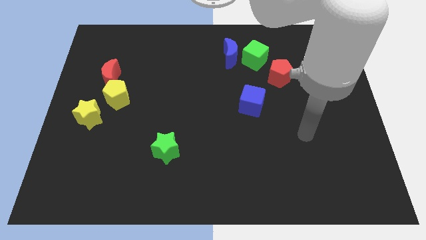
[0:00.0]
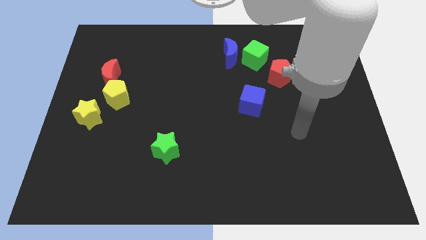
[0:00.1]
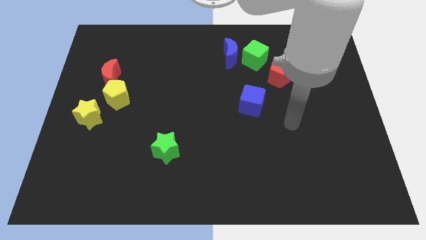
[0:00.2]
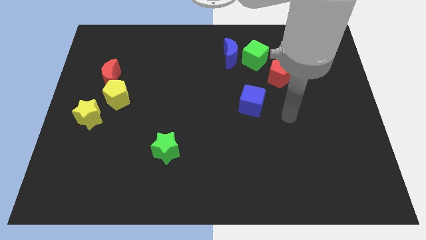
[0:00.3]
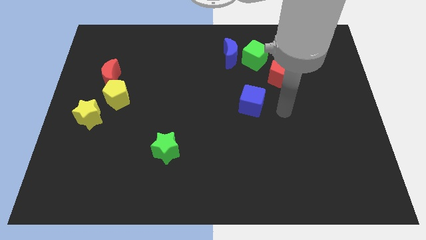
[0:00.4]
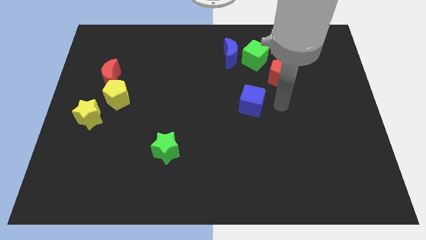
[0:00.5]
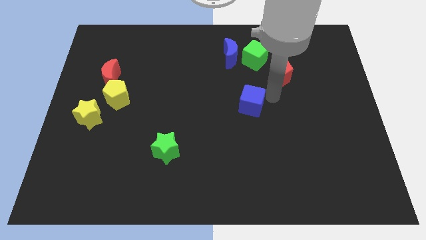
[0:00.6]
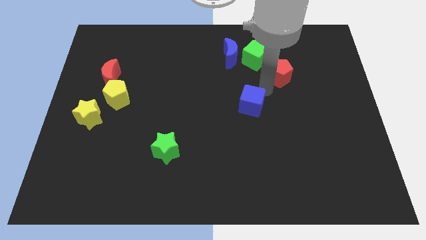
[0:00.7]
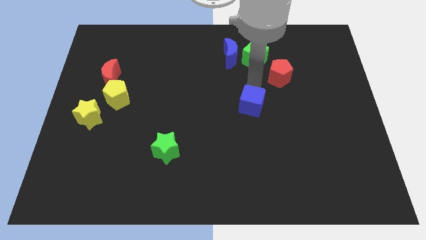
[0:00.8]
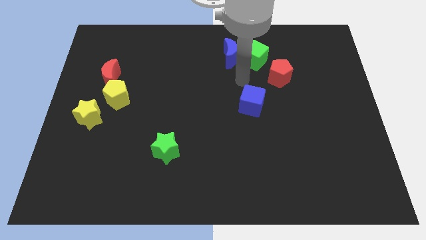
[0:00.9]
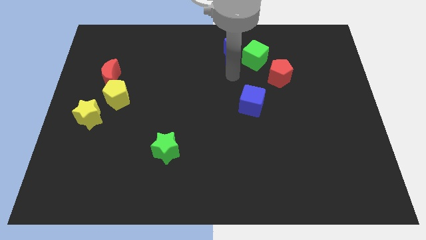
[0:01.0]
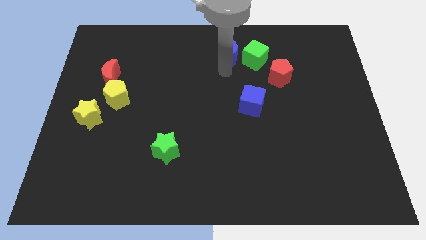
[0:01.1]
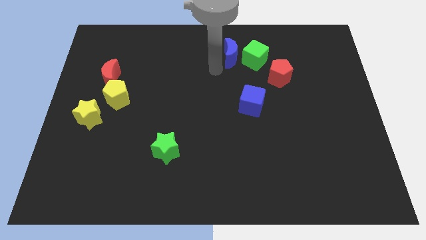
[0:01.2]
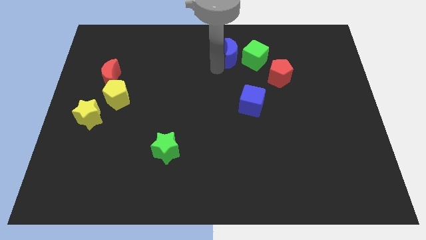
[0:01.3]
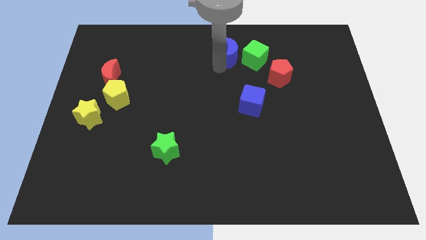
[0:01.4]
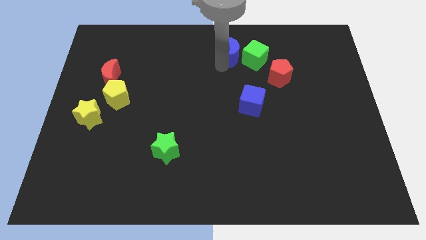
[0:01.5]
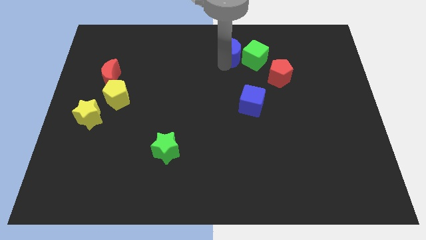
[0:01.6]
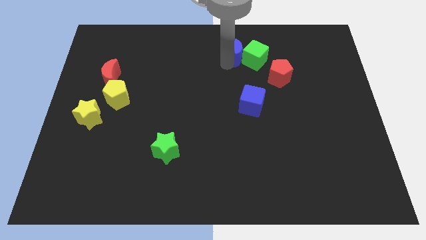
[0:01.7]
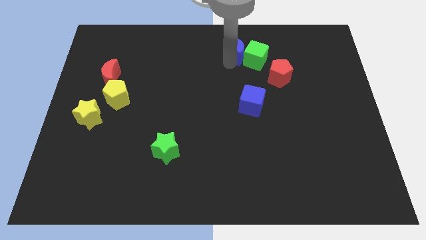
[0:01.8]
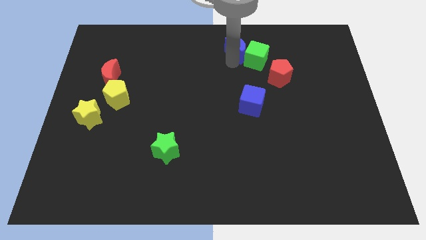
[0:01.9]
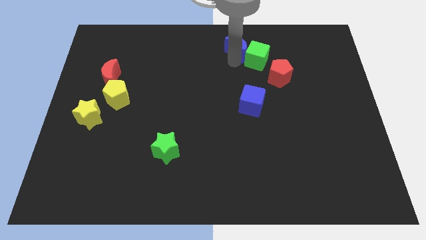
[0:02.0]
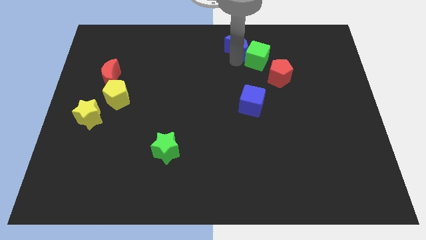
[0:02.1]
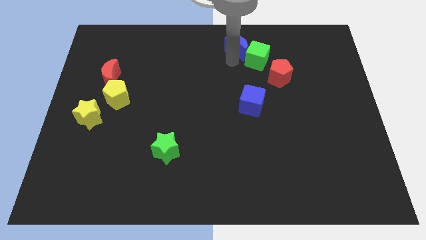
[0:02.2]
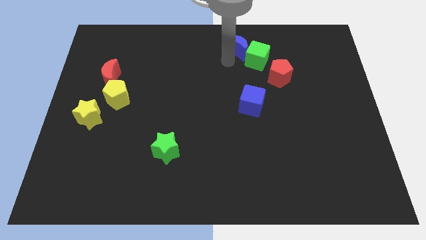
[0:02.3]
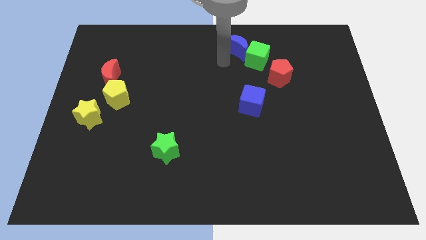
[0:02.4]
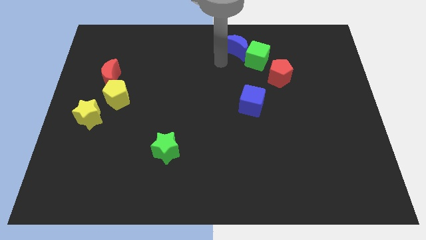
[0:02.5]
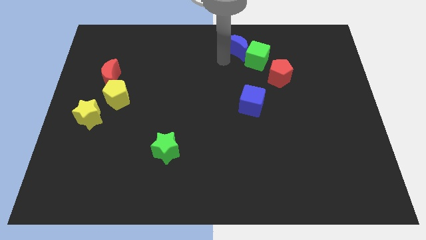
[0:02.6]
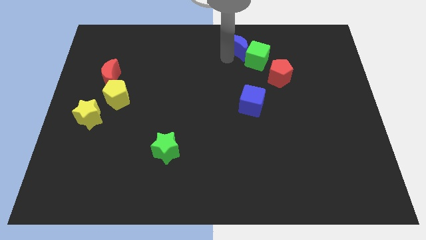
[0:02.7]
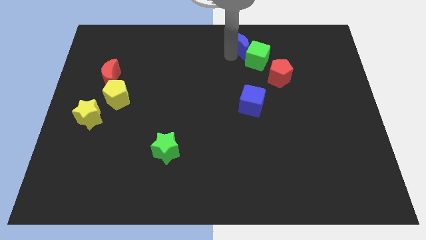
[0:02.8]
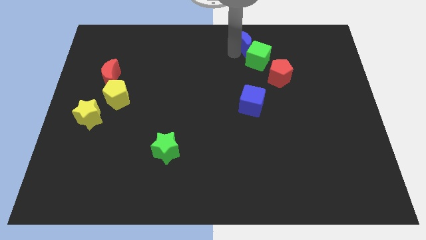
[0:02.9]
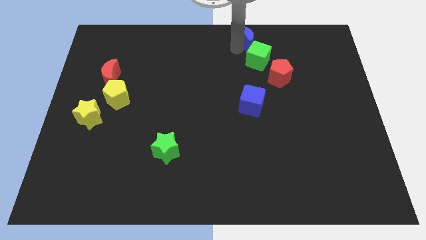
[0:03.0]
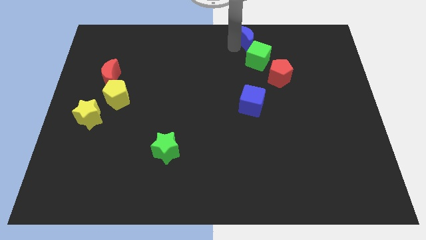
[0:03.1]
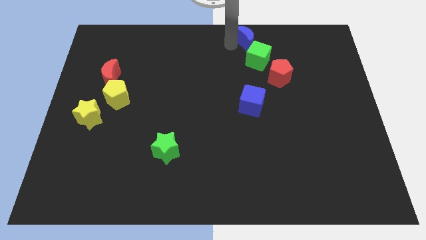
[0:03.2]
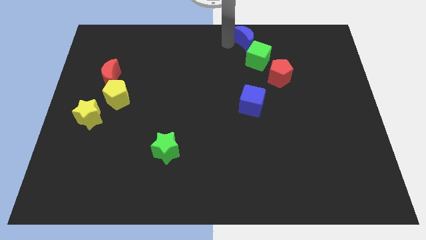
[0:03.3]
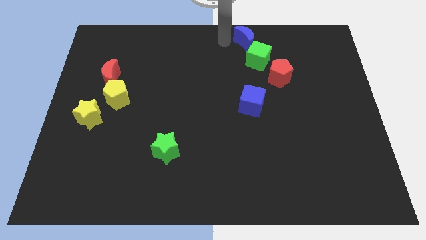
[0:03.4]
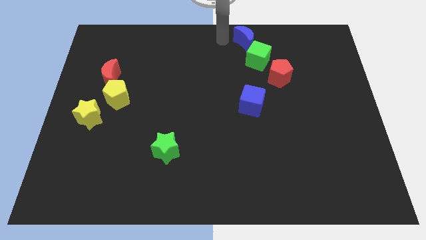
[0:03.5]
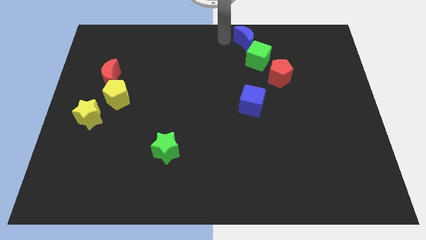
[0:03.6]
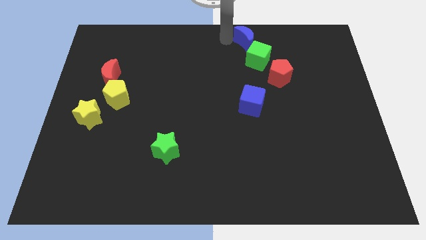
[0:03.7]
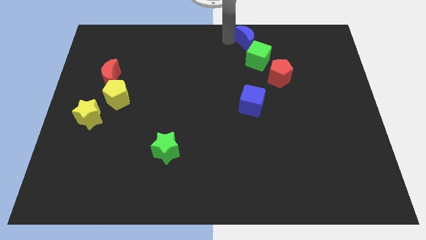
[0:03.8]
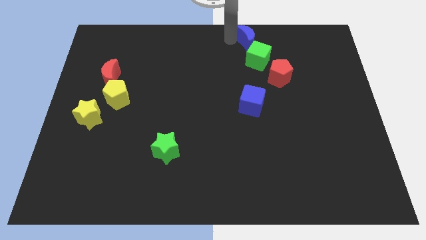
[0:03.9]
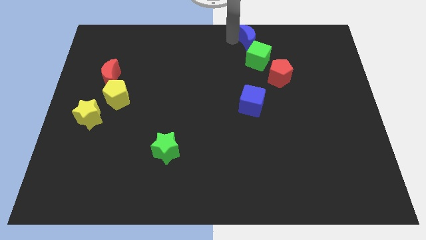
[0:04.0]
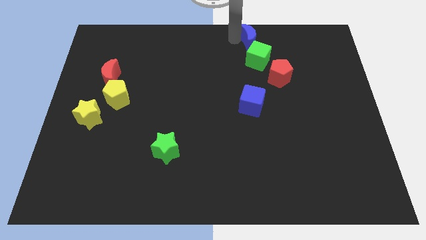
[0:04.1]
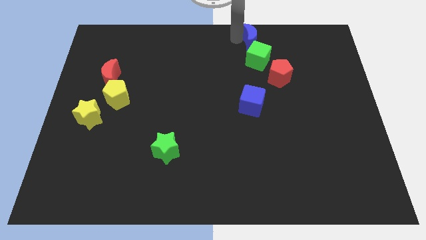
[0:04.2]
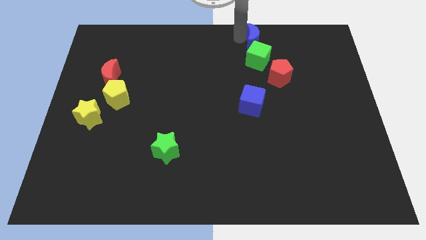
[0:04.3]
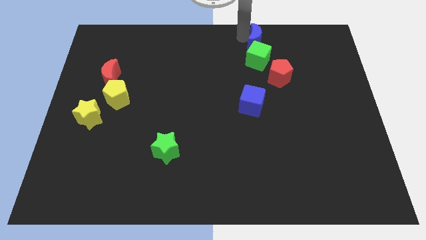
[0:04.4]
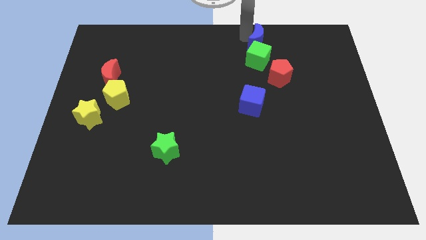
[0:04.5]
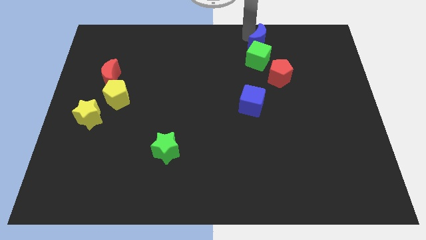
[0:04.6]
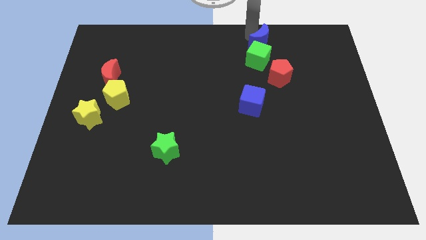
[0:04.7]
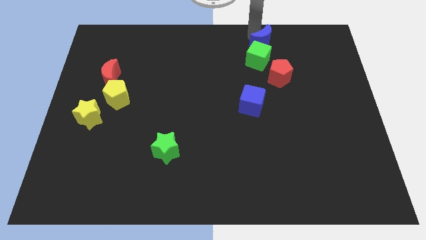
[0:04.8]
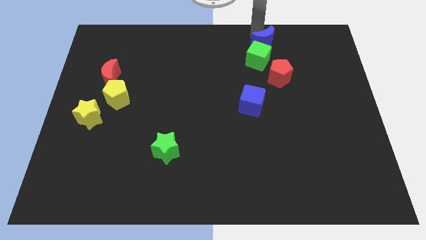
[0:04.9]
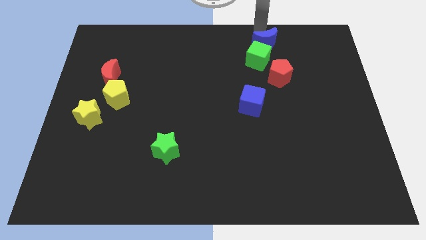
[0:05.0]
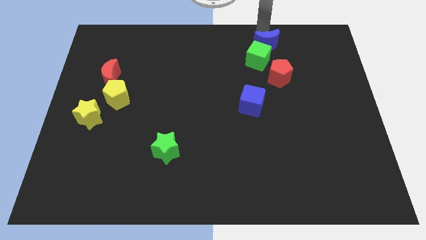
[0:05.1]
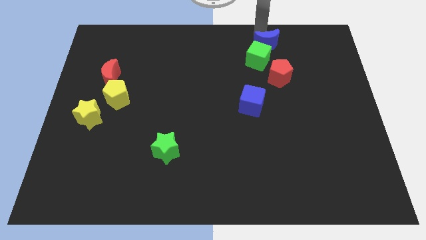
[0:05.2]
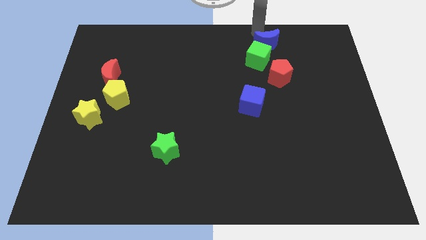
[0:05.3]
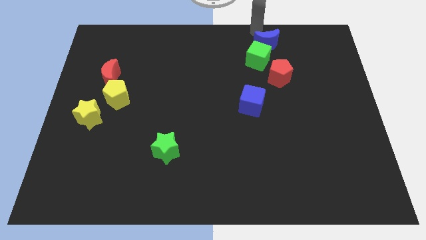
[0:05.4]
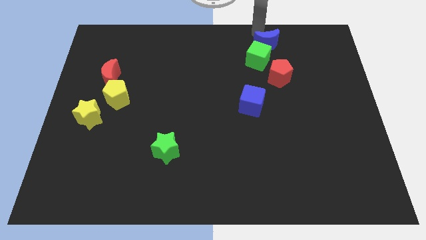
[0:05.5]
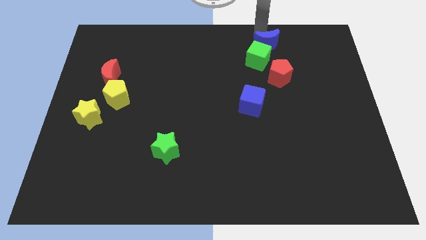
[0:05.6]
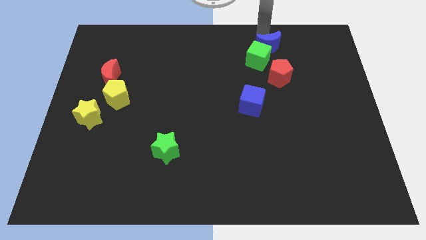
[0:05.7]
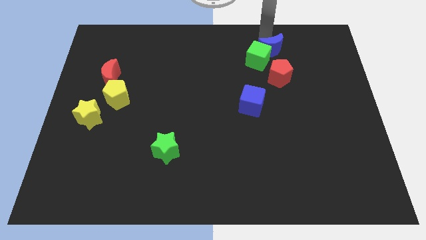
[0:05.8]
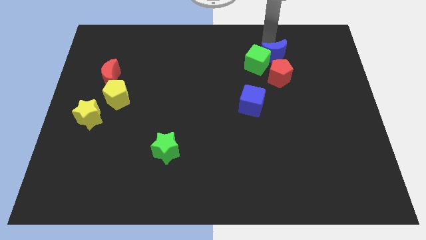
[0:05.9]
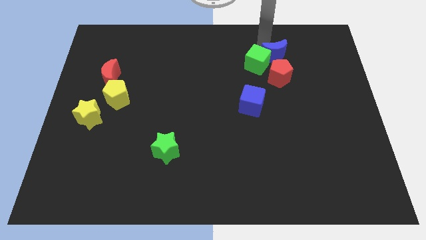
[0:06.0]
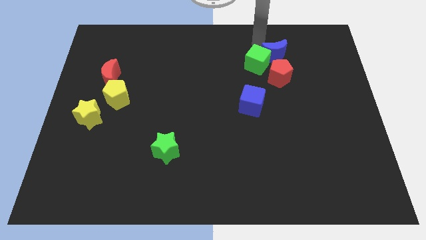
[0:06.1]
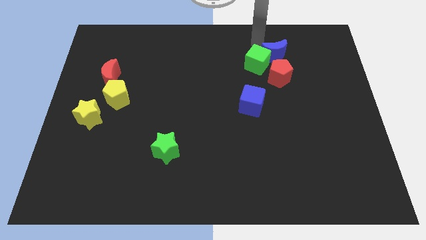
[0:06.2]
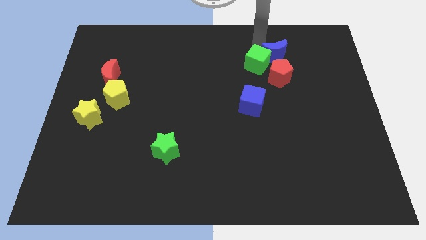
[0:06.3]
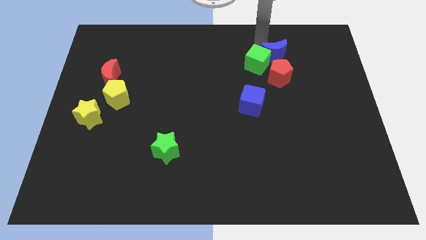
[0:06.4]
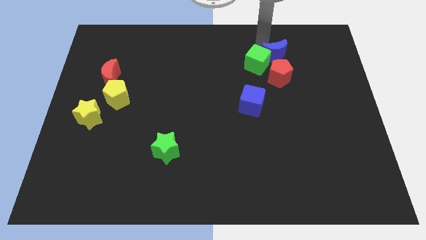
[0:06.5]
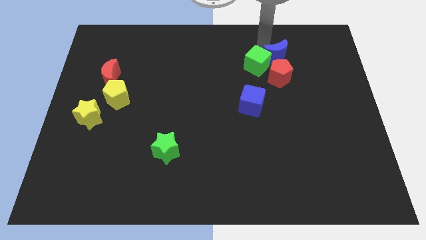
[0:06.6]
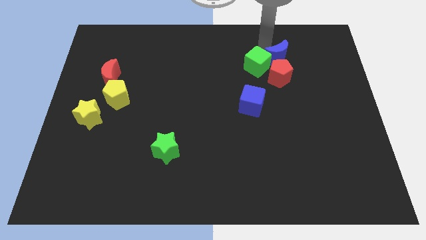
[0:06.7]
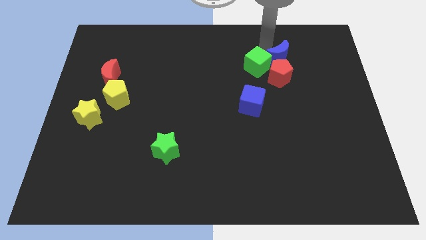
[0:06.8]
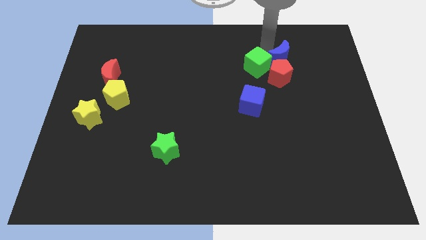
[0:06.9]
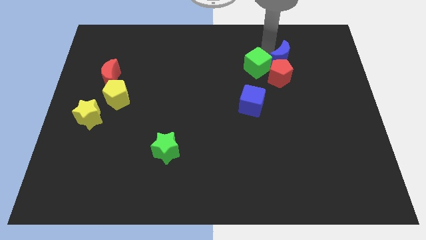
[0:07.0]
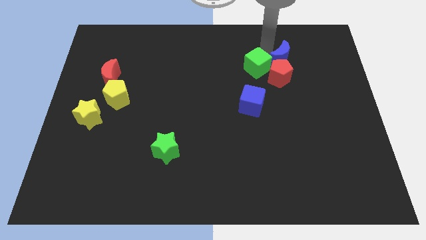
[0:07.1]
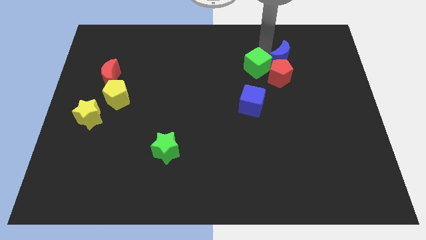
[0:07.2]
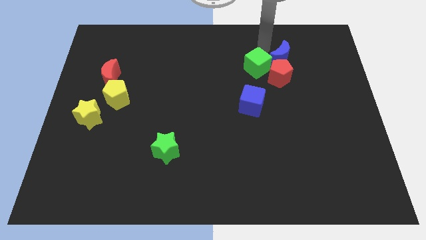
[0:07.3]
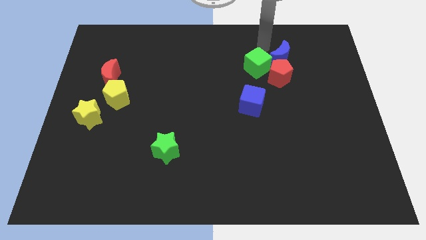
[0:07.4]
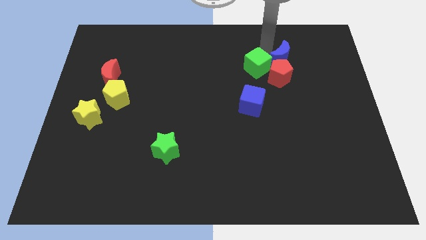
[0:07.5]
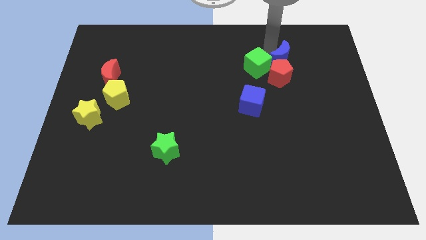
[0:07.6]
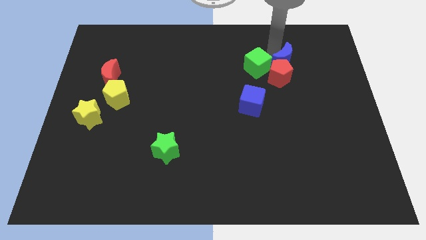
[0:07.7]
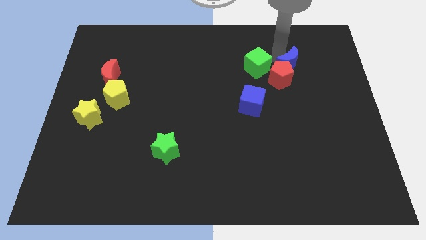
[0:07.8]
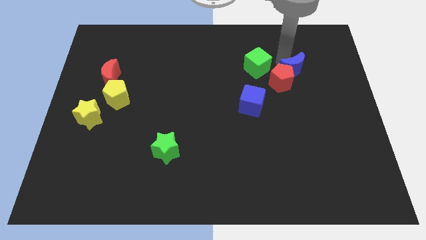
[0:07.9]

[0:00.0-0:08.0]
move the blue moon to the right of the red pentagon
